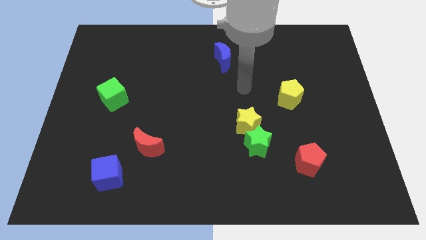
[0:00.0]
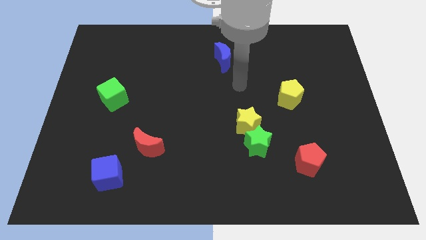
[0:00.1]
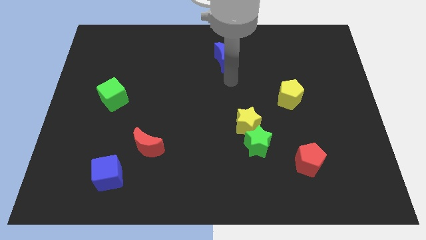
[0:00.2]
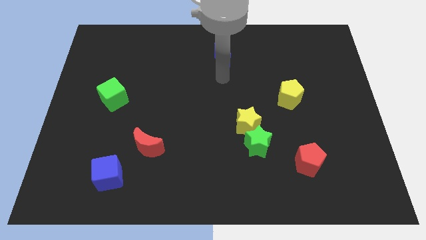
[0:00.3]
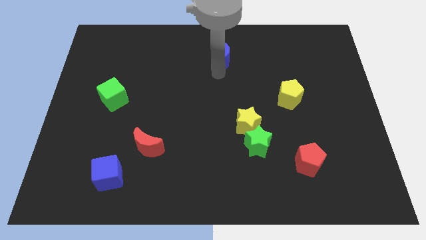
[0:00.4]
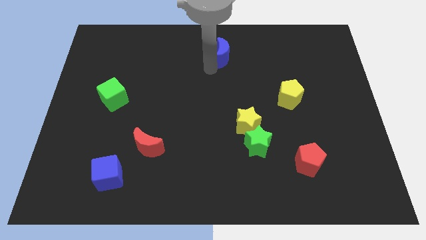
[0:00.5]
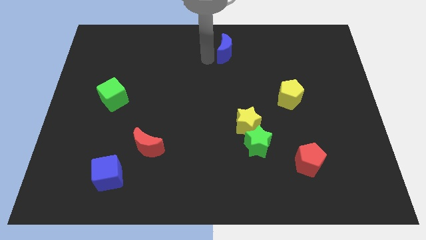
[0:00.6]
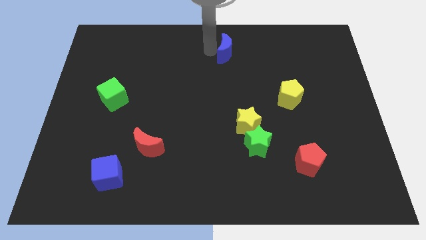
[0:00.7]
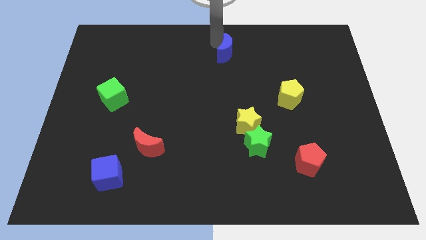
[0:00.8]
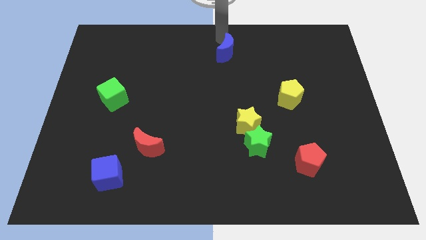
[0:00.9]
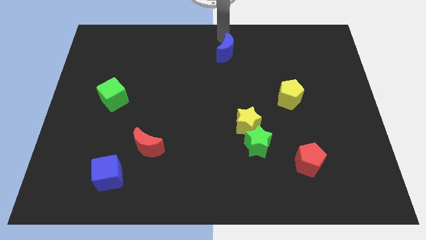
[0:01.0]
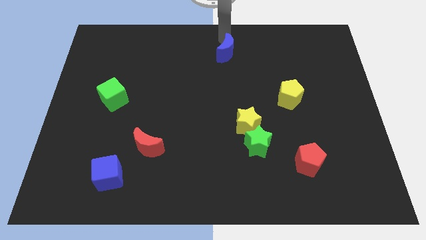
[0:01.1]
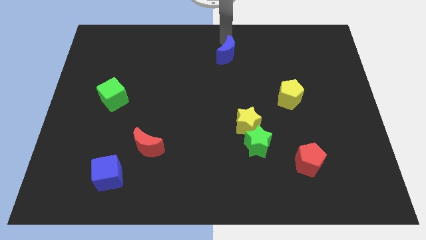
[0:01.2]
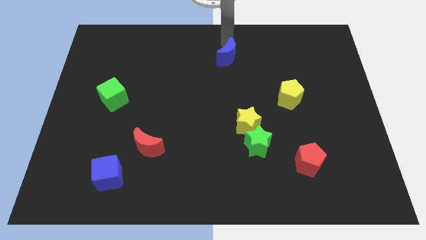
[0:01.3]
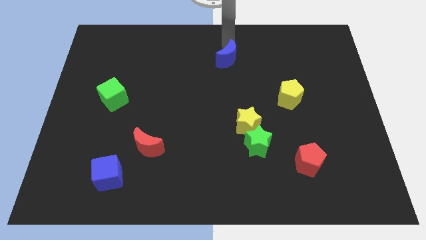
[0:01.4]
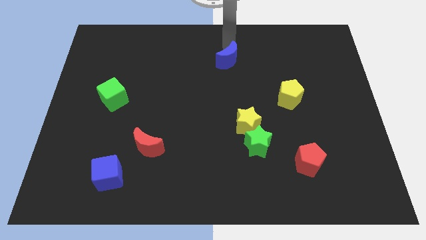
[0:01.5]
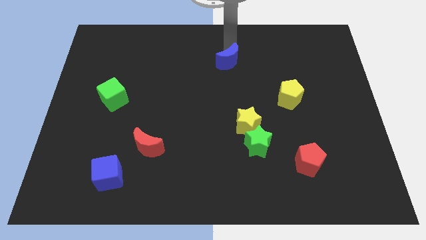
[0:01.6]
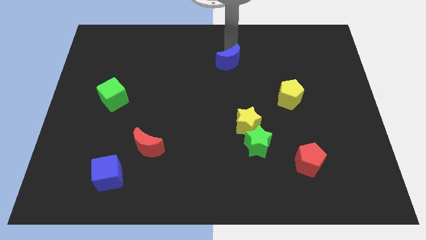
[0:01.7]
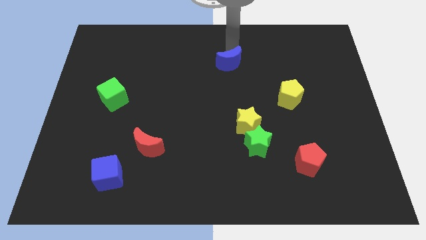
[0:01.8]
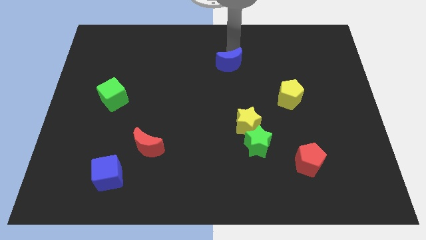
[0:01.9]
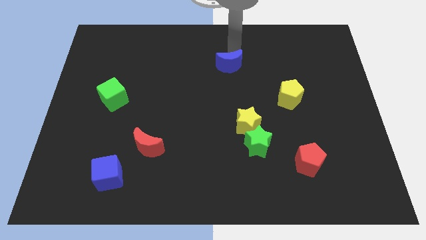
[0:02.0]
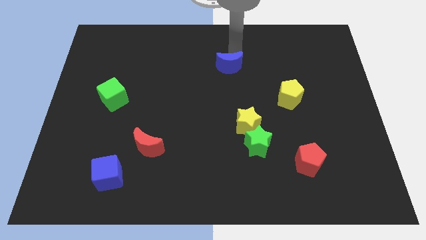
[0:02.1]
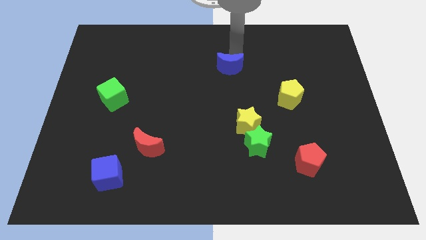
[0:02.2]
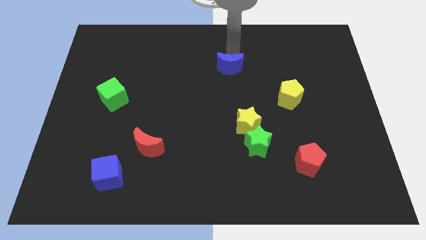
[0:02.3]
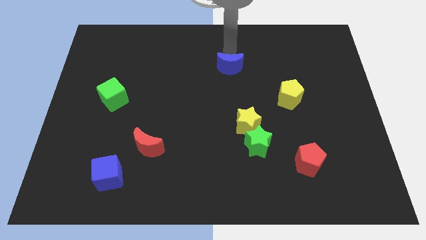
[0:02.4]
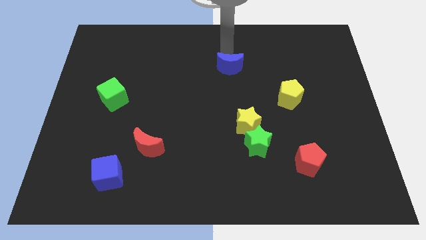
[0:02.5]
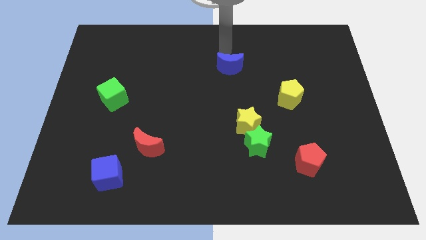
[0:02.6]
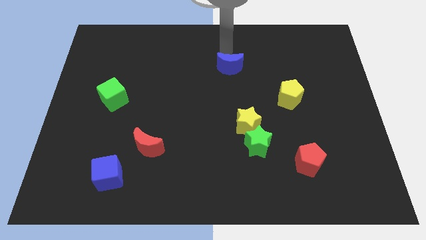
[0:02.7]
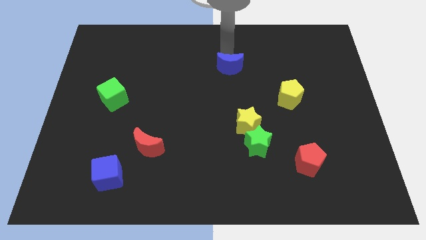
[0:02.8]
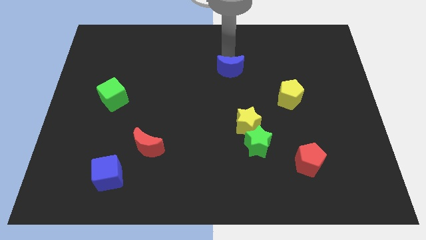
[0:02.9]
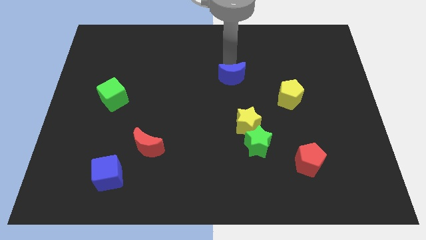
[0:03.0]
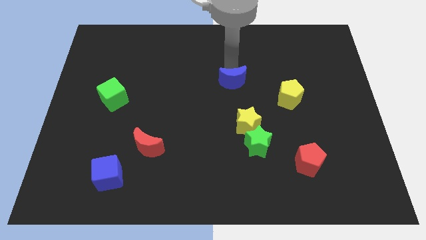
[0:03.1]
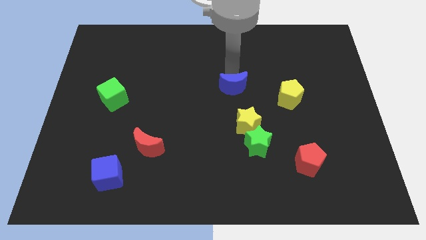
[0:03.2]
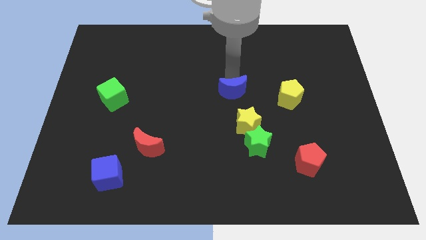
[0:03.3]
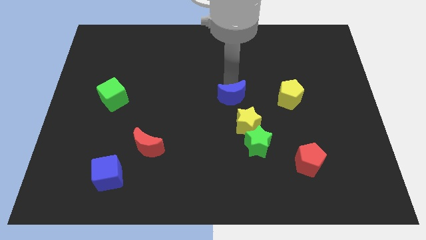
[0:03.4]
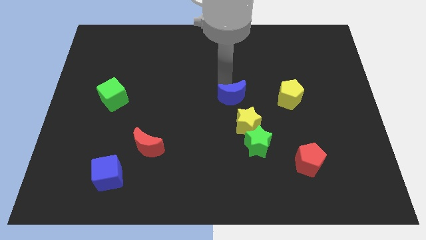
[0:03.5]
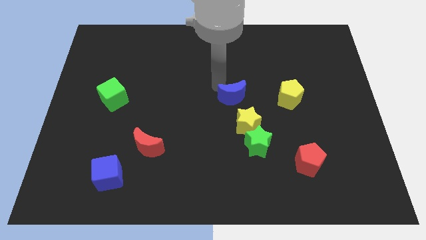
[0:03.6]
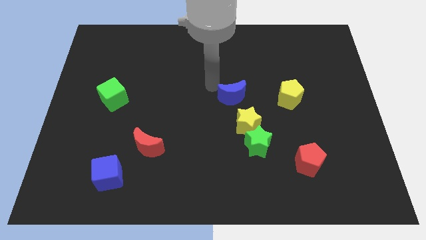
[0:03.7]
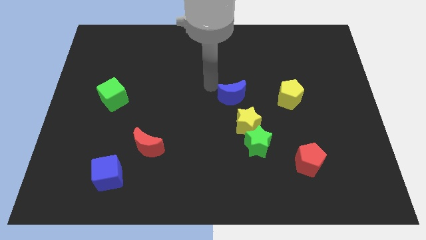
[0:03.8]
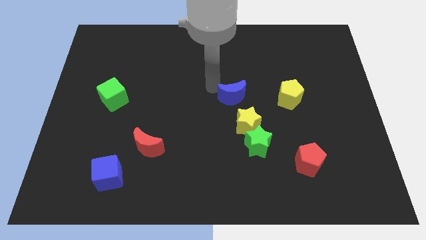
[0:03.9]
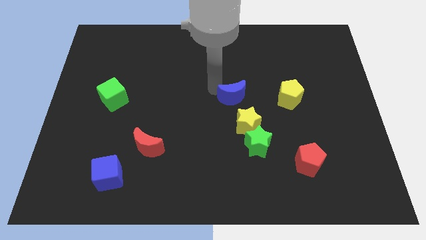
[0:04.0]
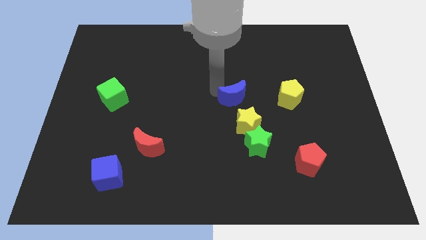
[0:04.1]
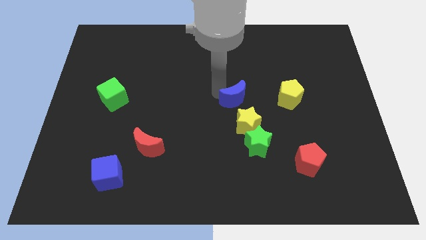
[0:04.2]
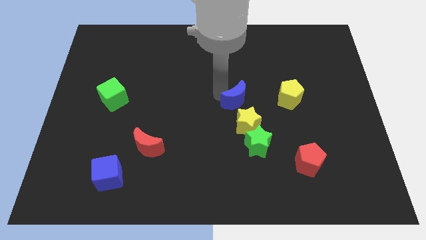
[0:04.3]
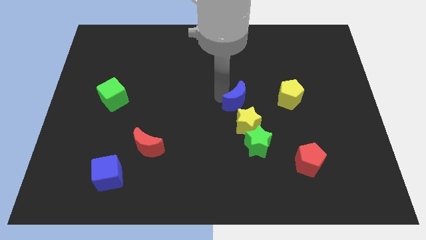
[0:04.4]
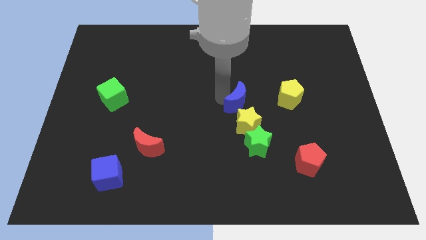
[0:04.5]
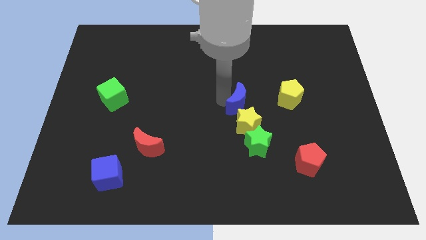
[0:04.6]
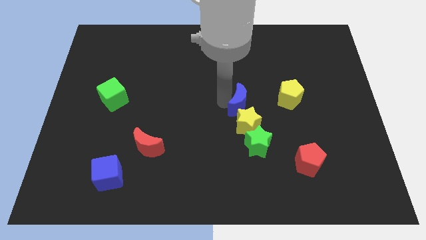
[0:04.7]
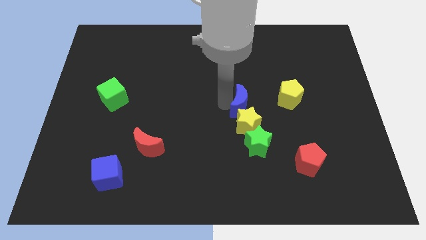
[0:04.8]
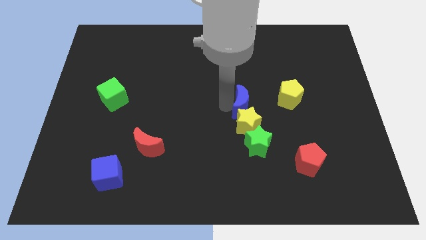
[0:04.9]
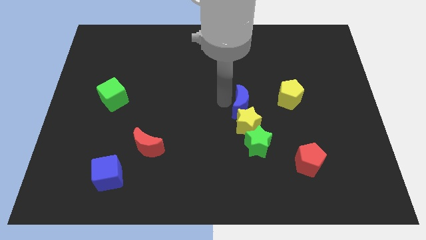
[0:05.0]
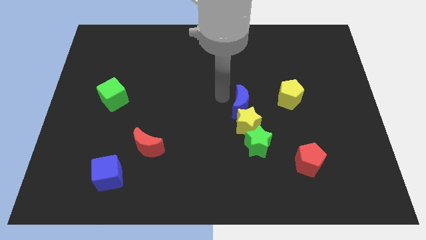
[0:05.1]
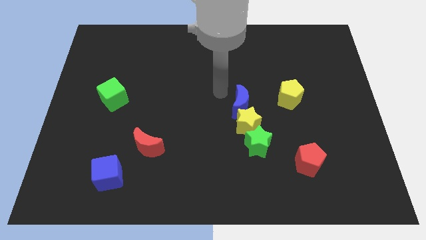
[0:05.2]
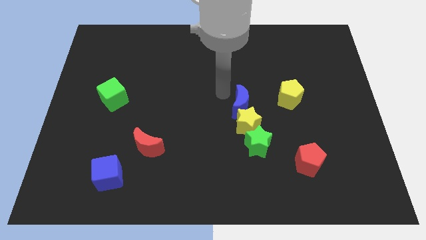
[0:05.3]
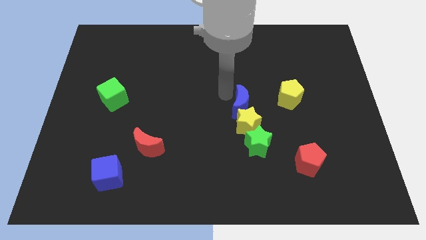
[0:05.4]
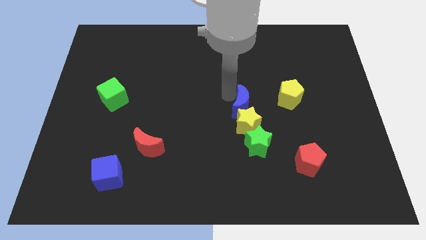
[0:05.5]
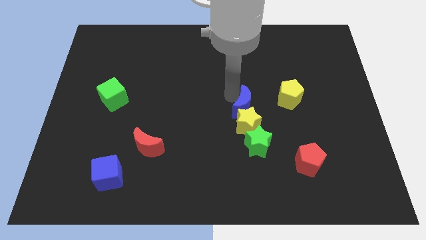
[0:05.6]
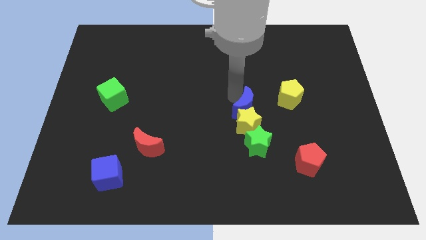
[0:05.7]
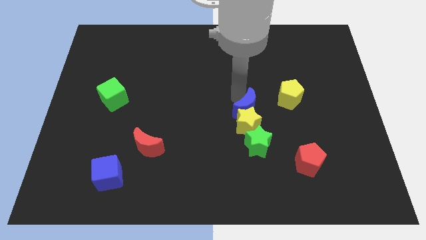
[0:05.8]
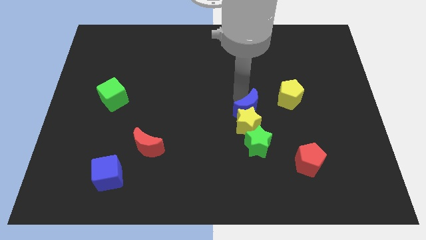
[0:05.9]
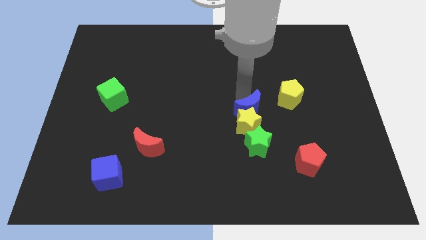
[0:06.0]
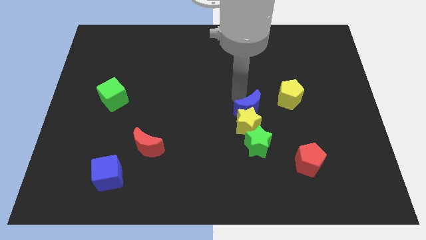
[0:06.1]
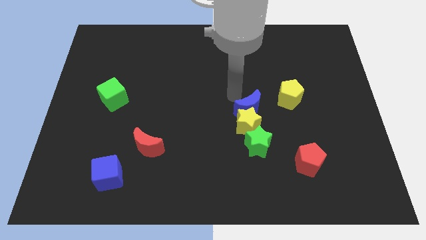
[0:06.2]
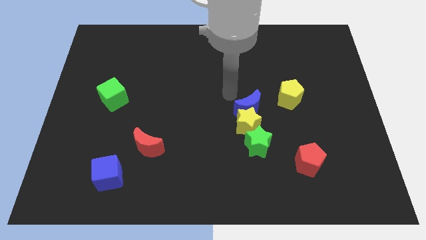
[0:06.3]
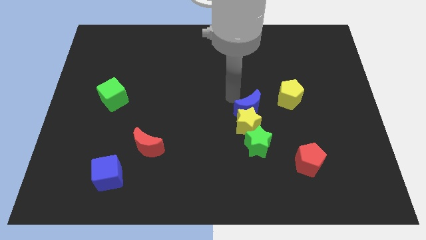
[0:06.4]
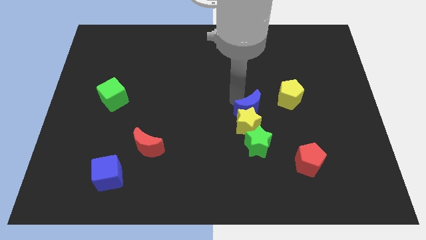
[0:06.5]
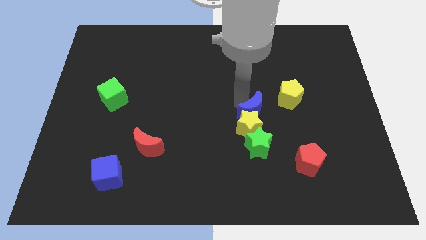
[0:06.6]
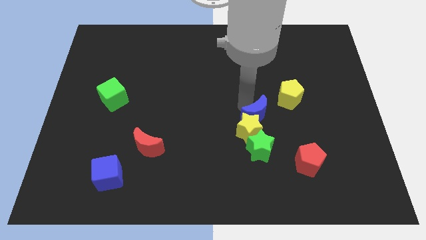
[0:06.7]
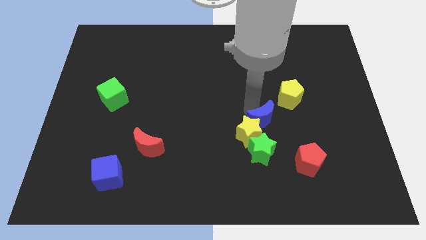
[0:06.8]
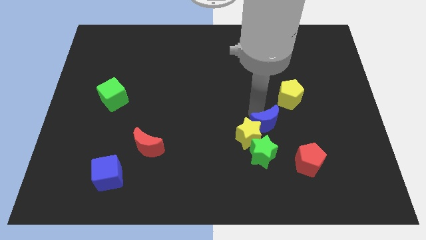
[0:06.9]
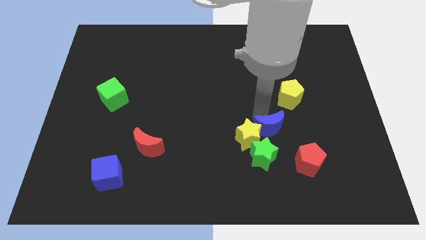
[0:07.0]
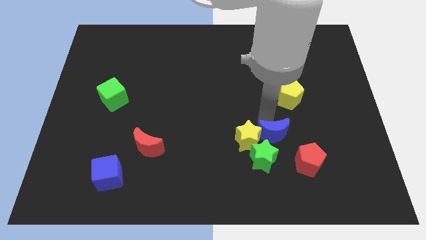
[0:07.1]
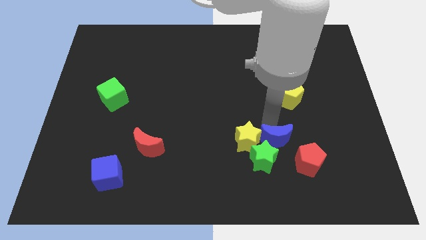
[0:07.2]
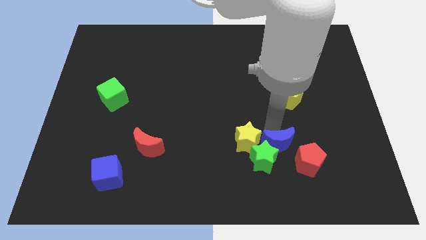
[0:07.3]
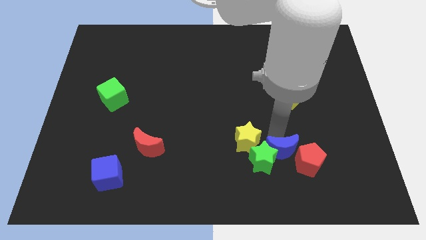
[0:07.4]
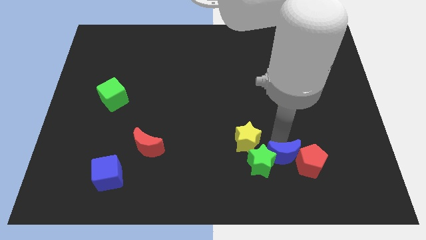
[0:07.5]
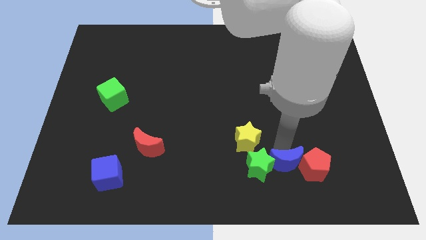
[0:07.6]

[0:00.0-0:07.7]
push the blue moon diagonally down and to the left of the red pentagon
